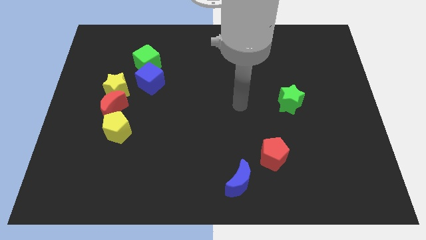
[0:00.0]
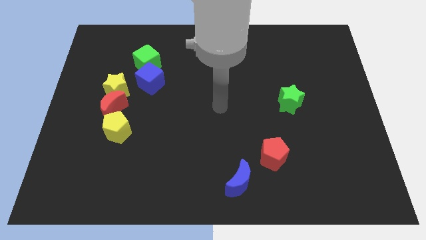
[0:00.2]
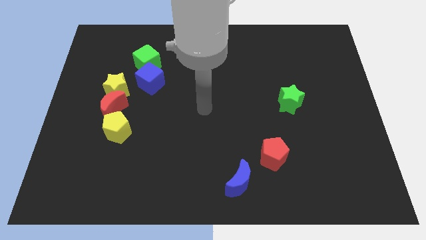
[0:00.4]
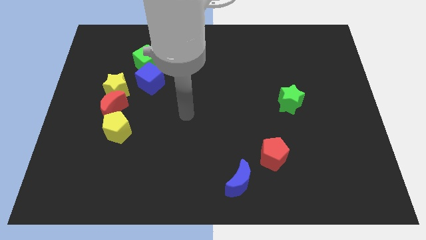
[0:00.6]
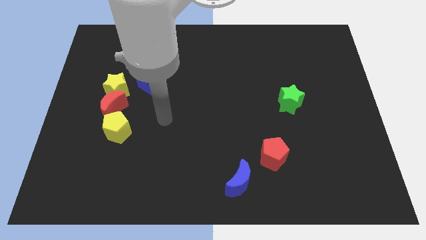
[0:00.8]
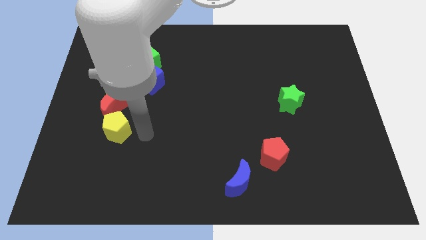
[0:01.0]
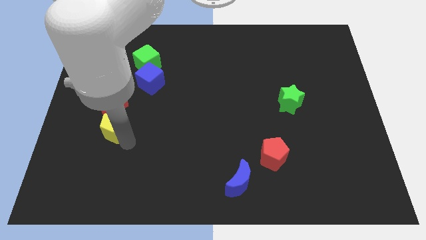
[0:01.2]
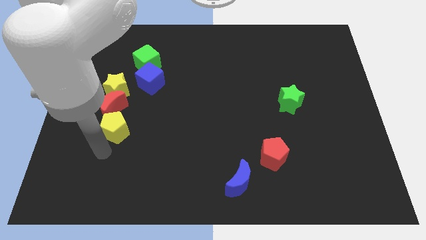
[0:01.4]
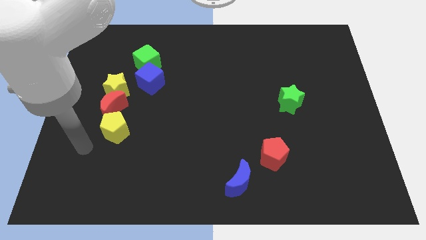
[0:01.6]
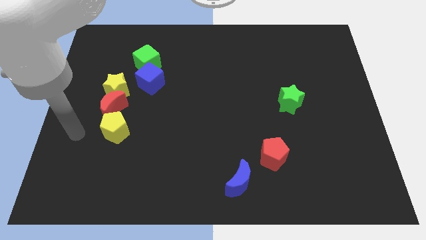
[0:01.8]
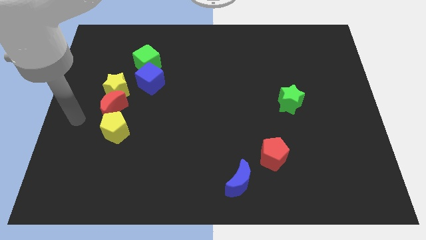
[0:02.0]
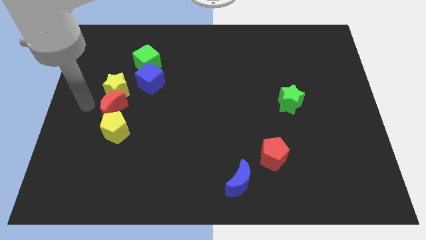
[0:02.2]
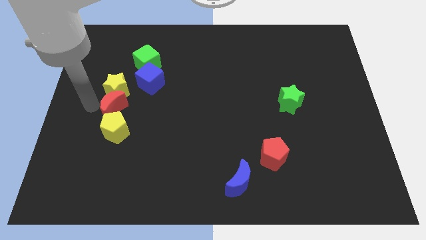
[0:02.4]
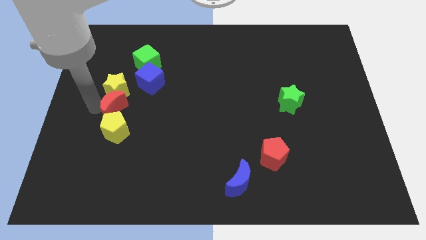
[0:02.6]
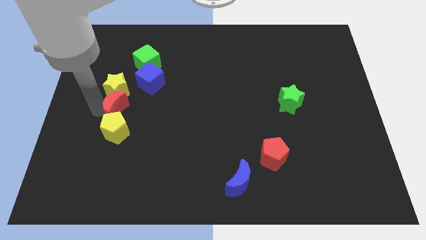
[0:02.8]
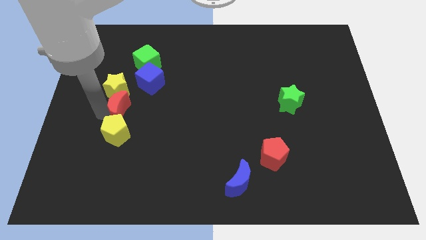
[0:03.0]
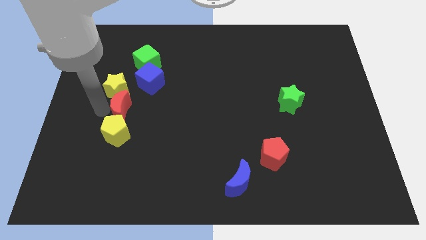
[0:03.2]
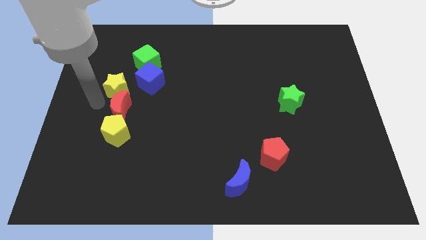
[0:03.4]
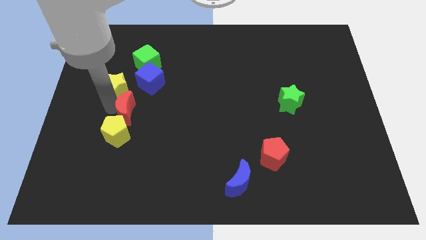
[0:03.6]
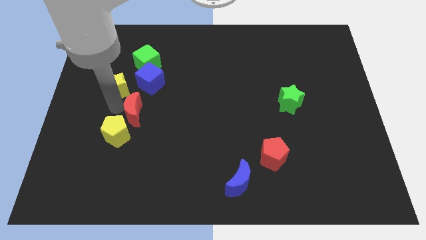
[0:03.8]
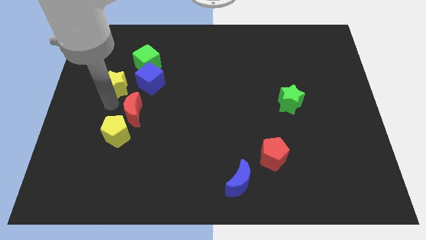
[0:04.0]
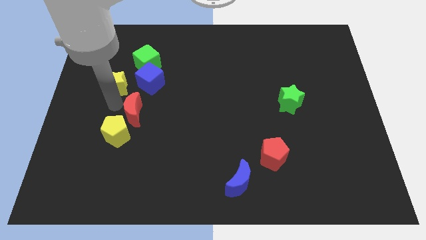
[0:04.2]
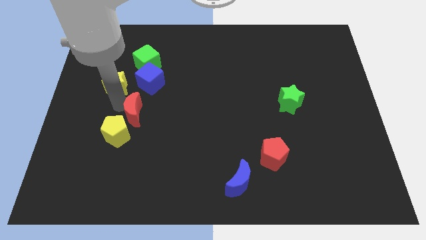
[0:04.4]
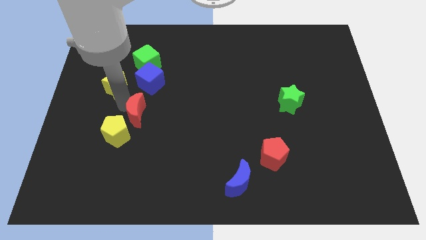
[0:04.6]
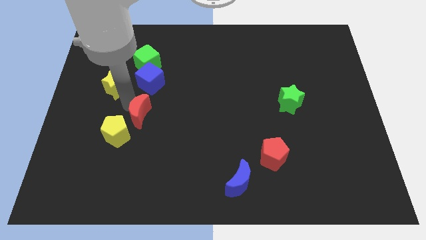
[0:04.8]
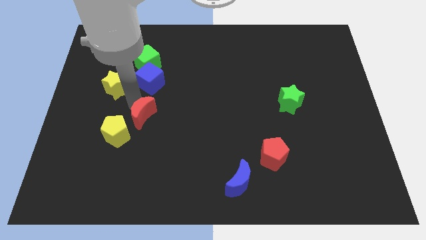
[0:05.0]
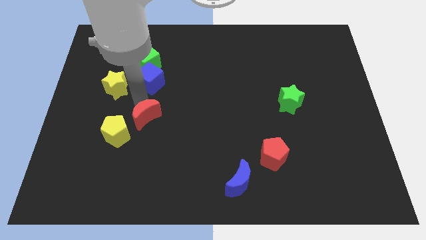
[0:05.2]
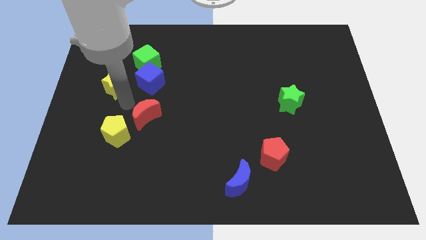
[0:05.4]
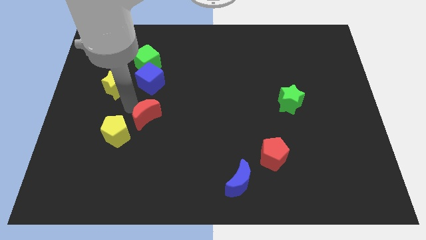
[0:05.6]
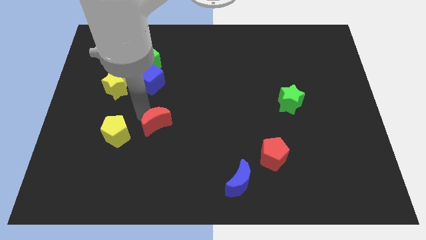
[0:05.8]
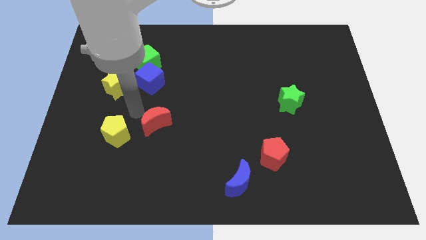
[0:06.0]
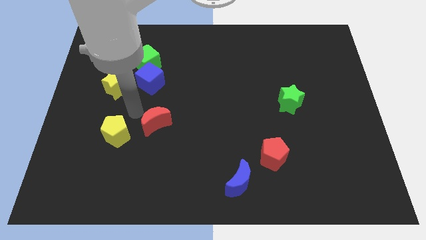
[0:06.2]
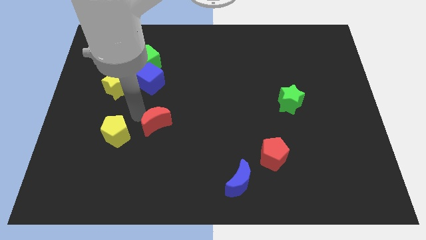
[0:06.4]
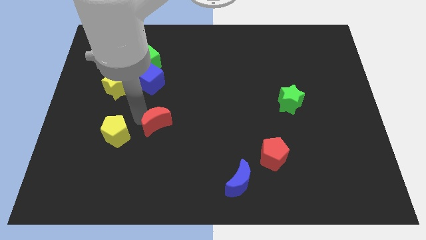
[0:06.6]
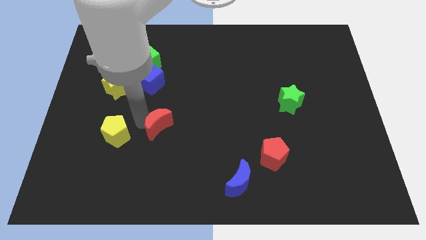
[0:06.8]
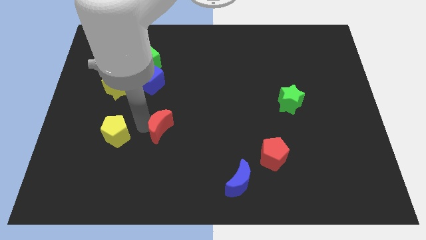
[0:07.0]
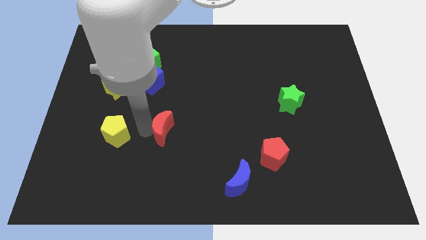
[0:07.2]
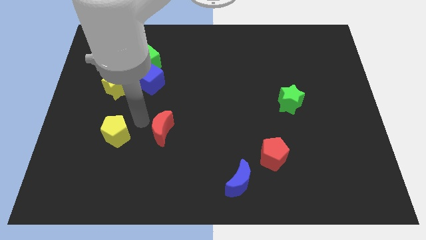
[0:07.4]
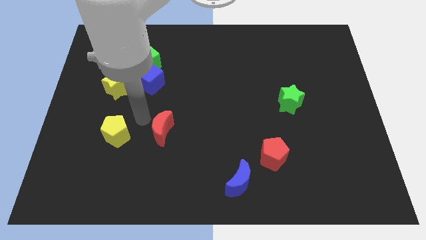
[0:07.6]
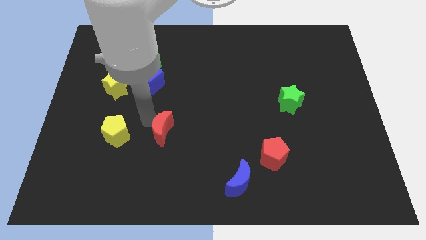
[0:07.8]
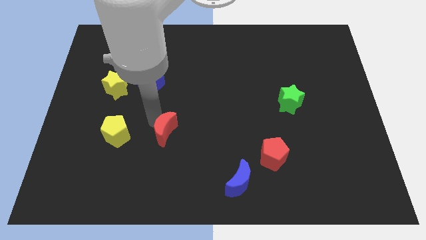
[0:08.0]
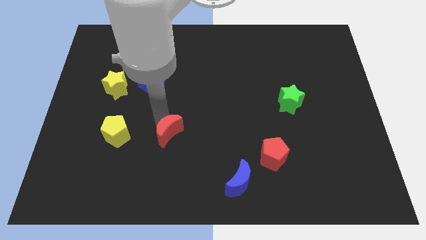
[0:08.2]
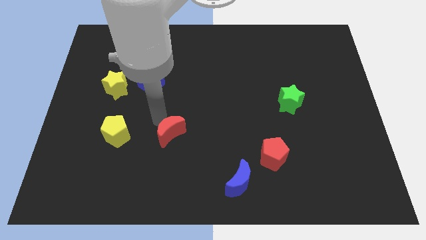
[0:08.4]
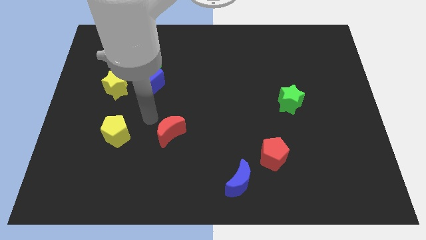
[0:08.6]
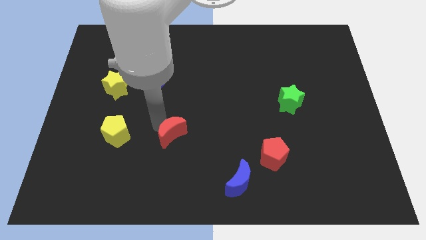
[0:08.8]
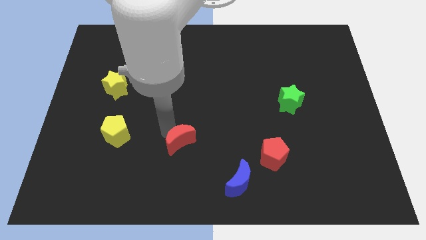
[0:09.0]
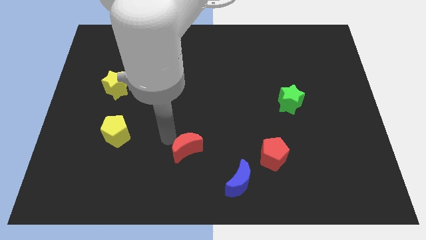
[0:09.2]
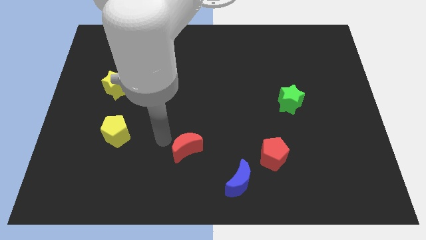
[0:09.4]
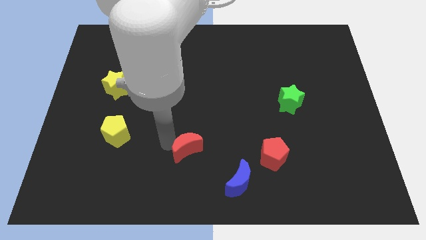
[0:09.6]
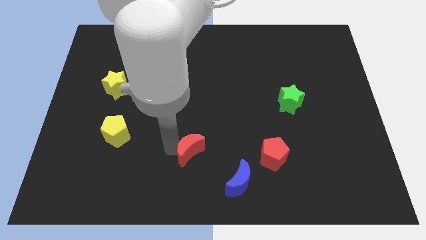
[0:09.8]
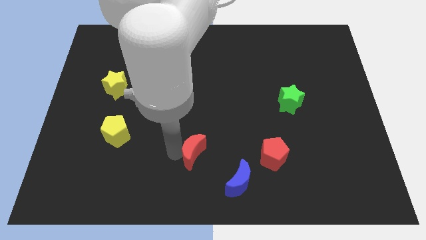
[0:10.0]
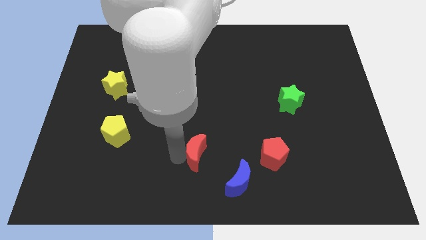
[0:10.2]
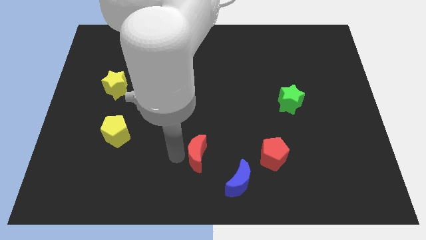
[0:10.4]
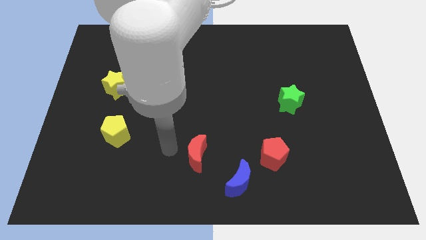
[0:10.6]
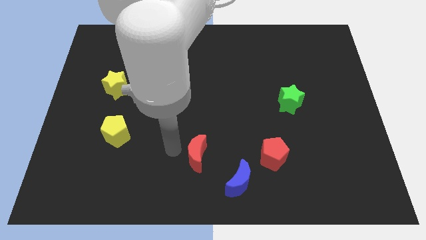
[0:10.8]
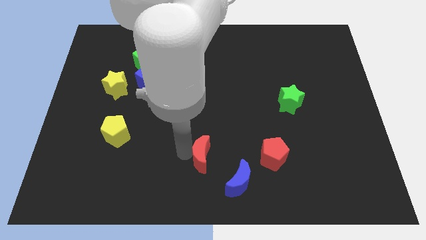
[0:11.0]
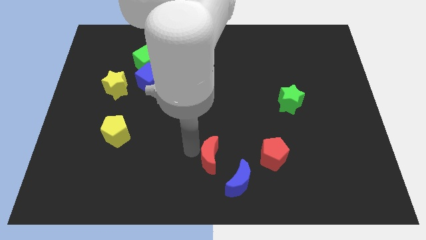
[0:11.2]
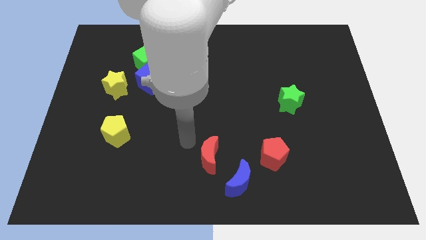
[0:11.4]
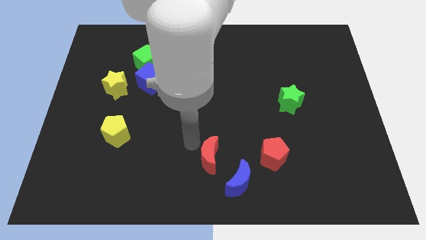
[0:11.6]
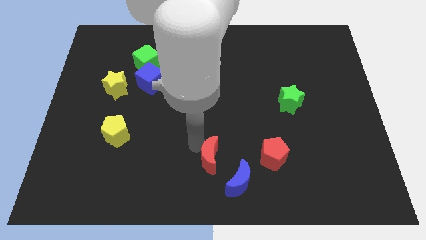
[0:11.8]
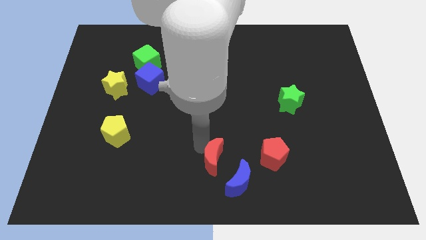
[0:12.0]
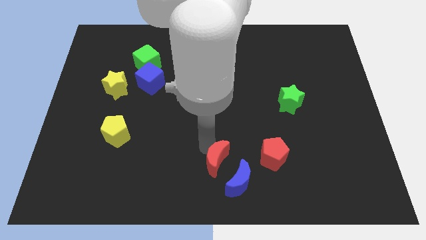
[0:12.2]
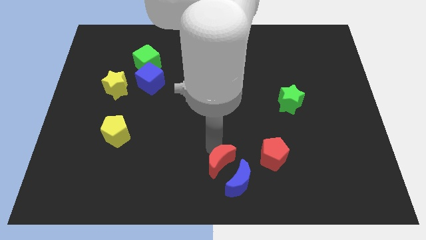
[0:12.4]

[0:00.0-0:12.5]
put the red moon towards the blue moon

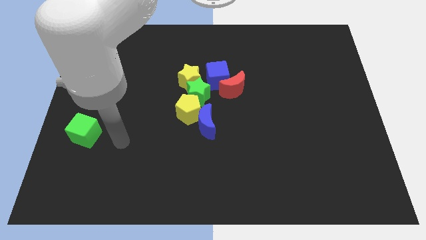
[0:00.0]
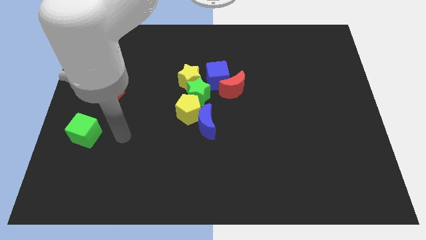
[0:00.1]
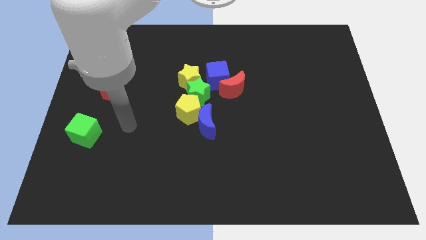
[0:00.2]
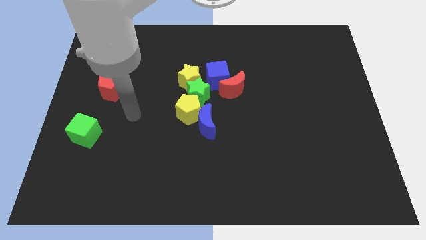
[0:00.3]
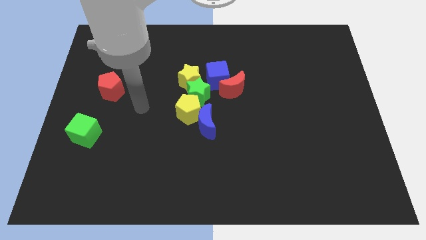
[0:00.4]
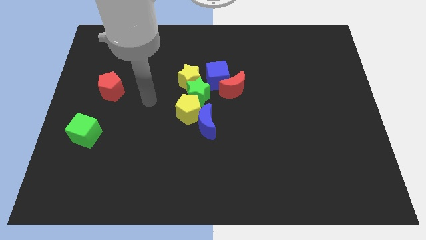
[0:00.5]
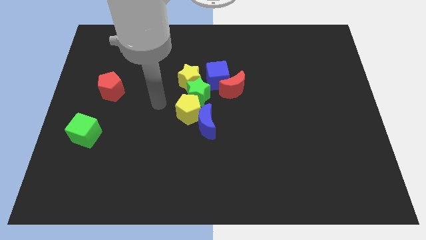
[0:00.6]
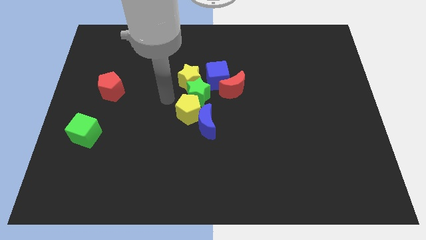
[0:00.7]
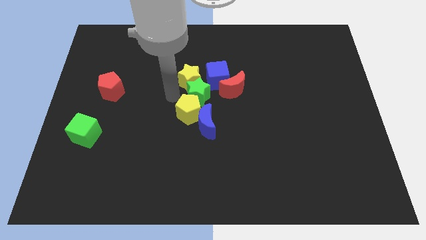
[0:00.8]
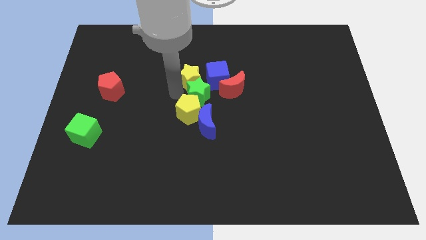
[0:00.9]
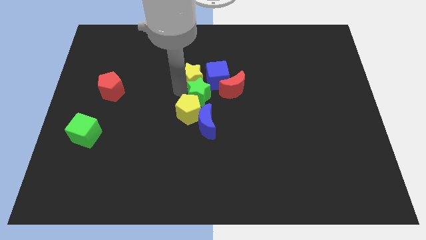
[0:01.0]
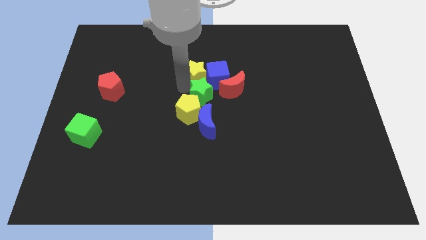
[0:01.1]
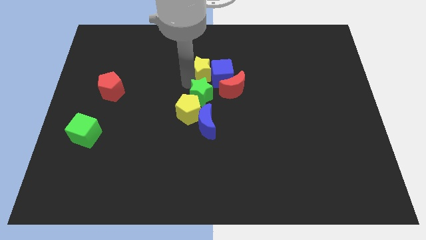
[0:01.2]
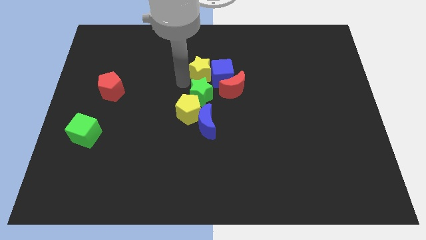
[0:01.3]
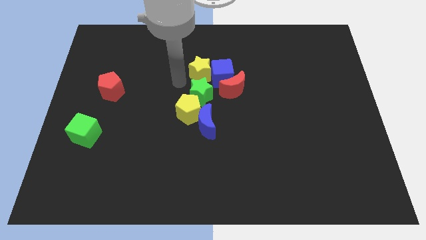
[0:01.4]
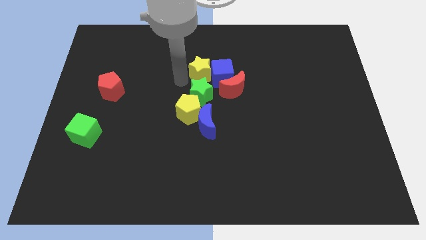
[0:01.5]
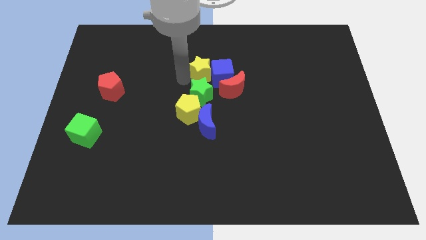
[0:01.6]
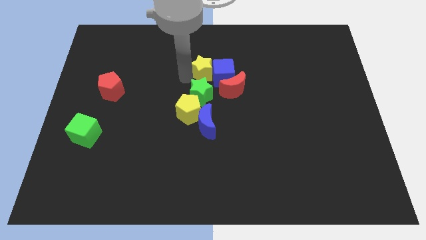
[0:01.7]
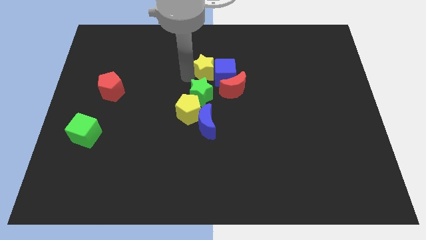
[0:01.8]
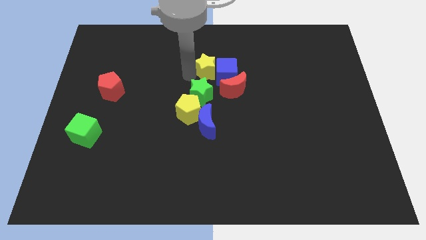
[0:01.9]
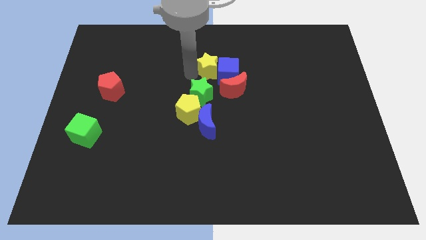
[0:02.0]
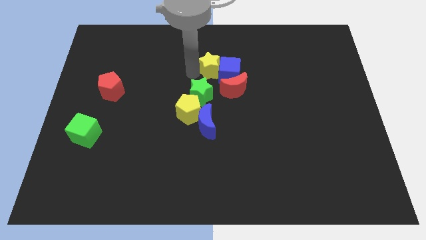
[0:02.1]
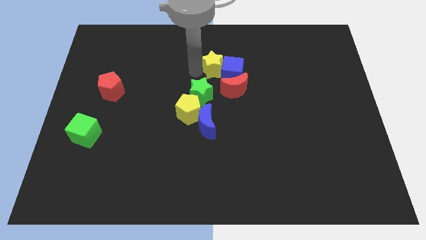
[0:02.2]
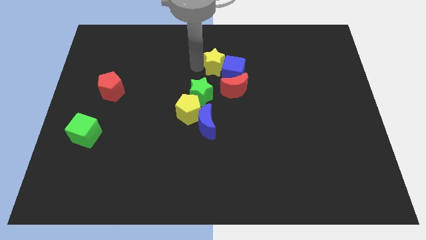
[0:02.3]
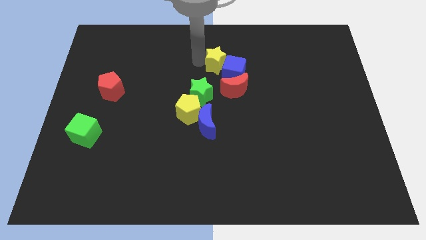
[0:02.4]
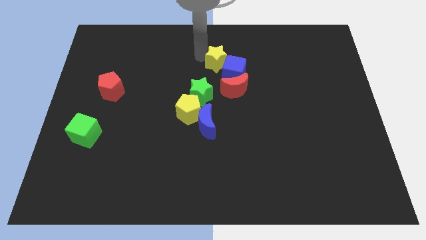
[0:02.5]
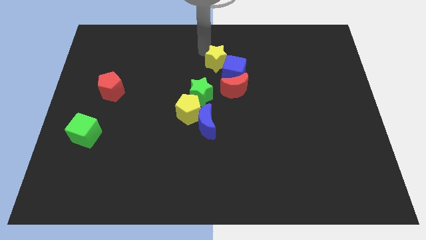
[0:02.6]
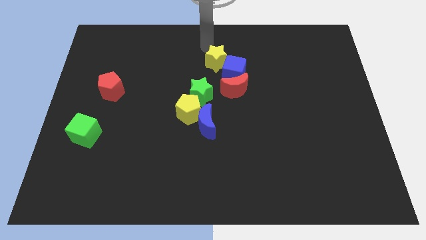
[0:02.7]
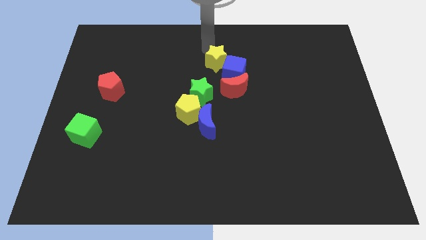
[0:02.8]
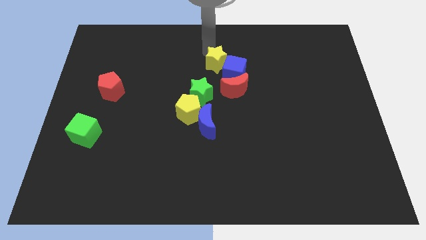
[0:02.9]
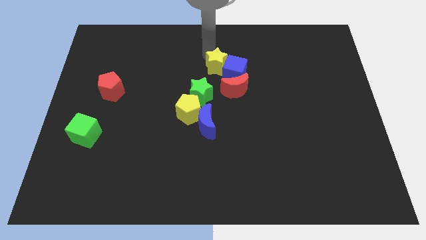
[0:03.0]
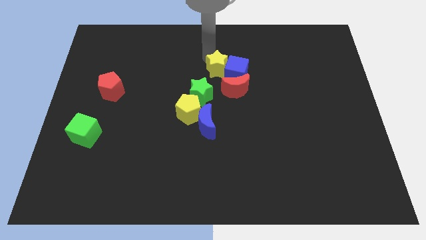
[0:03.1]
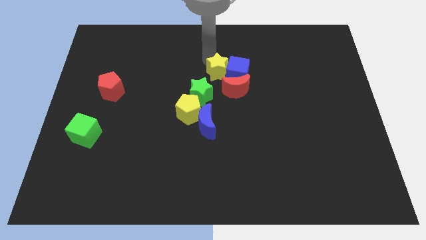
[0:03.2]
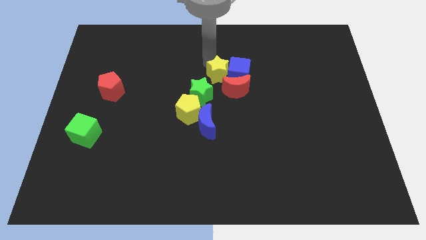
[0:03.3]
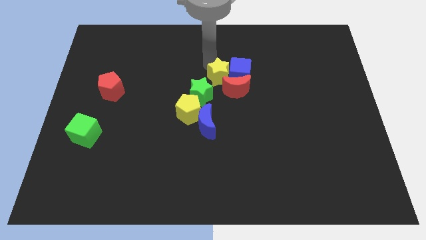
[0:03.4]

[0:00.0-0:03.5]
move the yellow star towards the red moon
